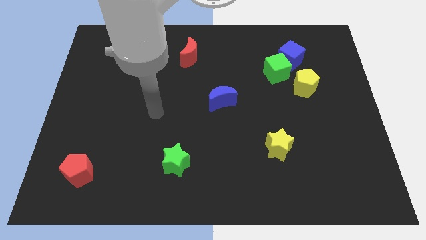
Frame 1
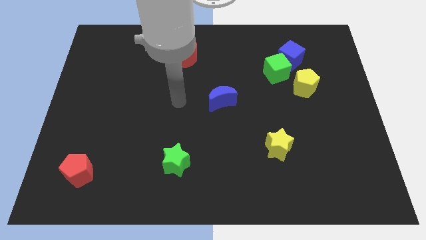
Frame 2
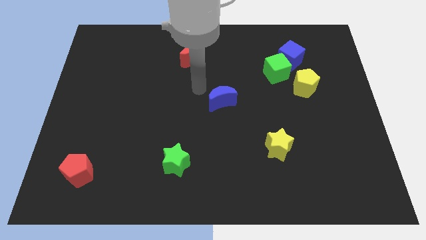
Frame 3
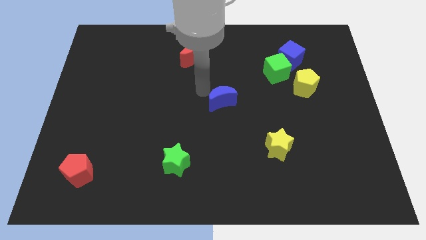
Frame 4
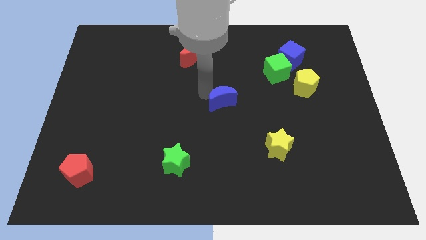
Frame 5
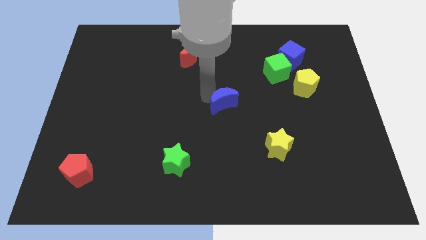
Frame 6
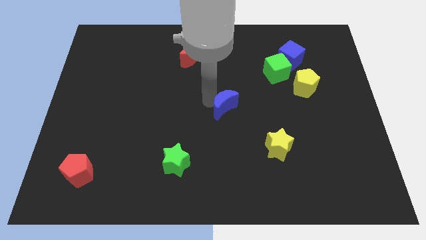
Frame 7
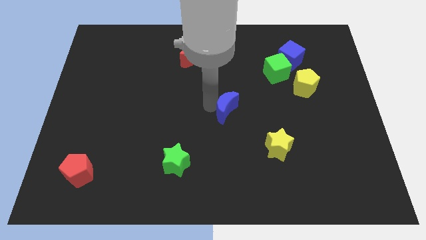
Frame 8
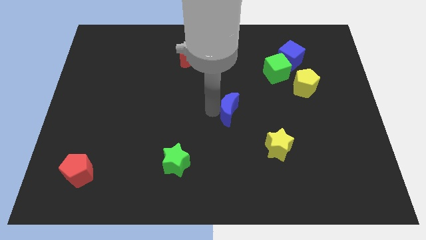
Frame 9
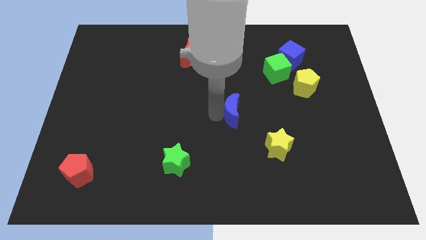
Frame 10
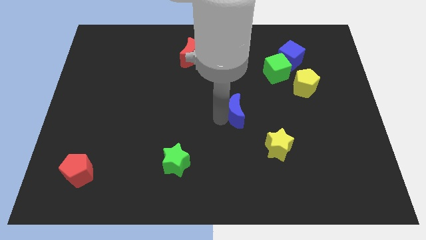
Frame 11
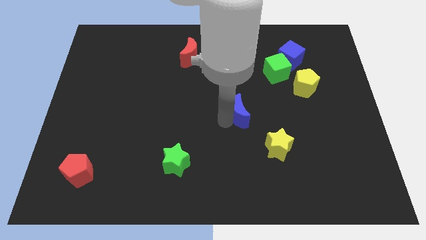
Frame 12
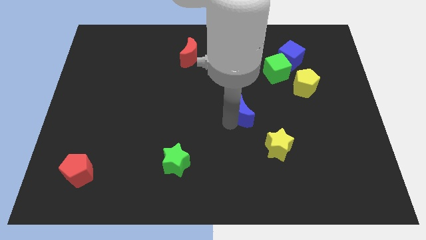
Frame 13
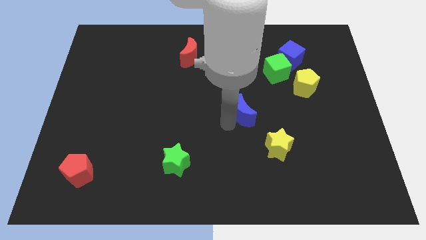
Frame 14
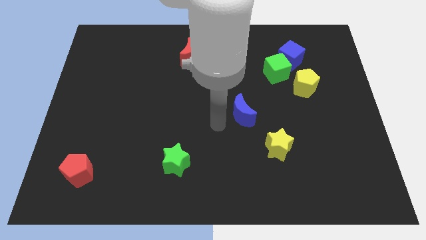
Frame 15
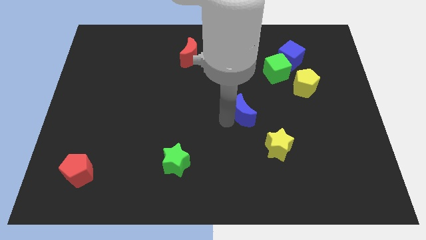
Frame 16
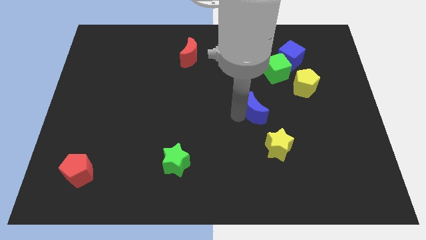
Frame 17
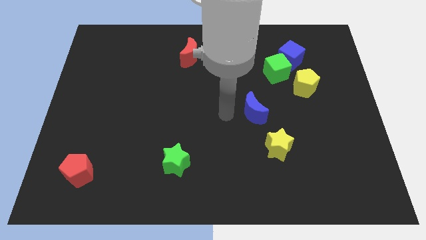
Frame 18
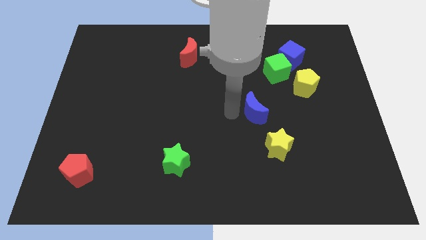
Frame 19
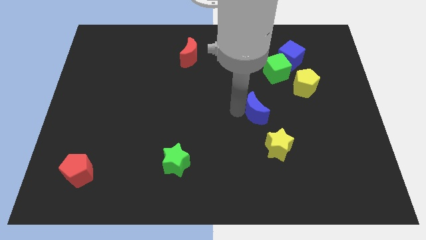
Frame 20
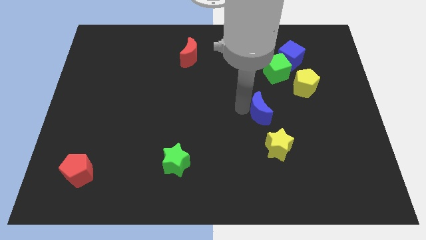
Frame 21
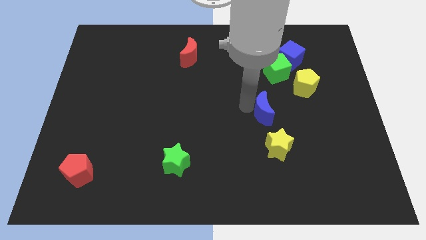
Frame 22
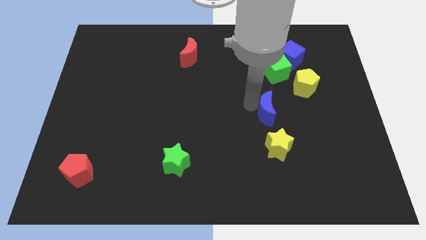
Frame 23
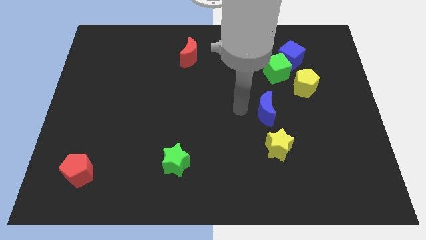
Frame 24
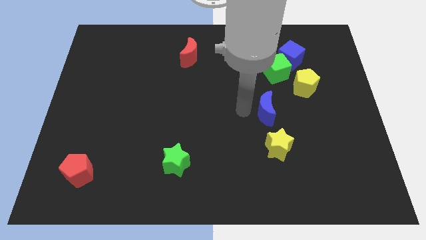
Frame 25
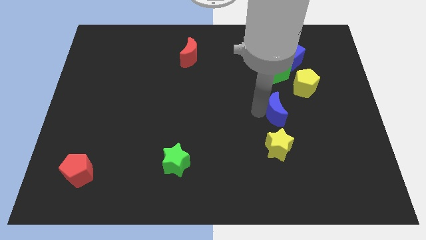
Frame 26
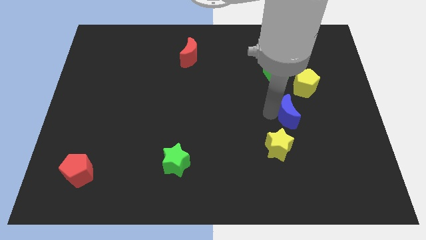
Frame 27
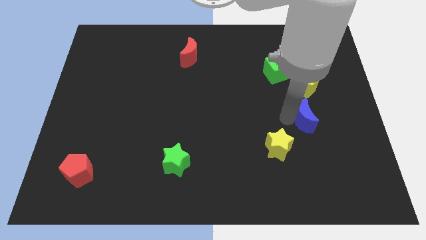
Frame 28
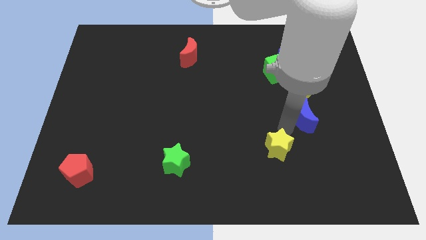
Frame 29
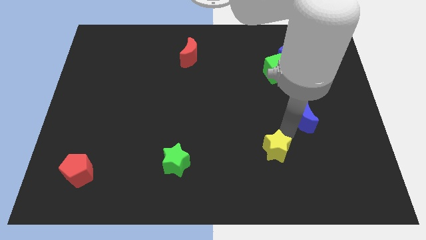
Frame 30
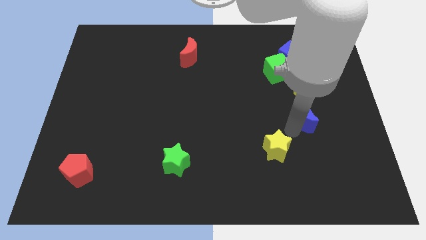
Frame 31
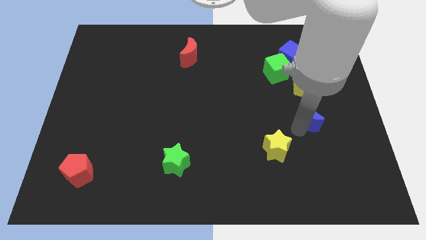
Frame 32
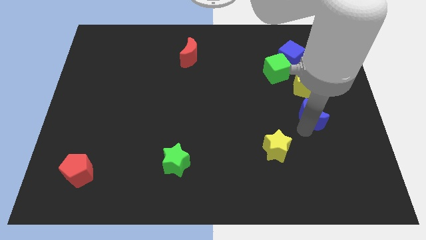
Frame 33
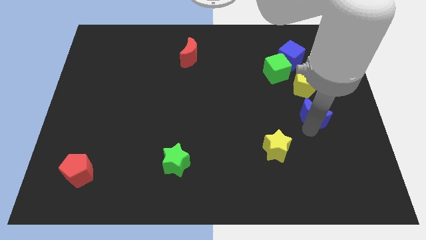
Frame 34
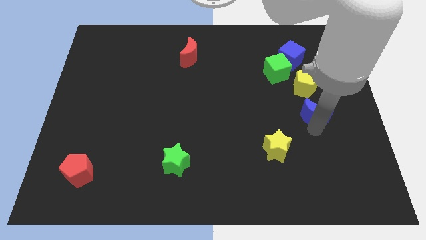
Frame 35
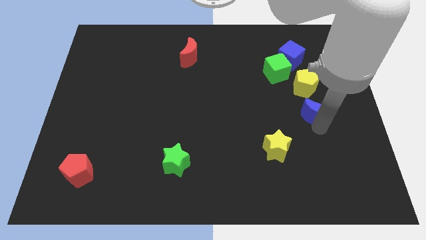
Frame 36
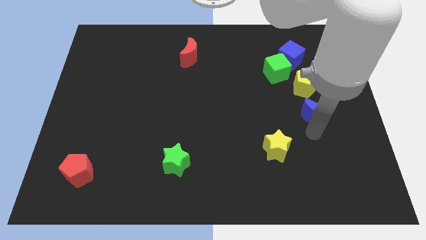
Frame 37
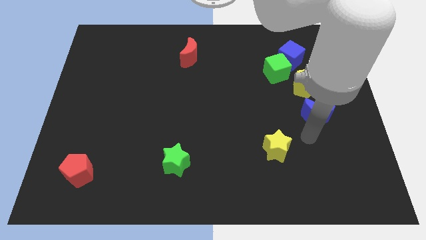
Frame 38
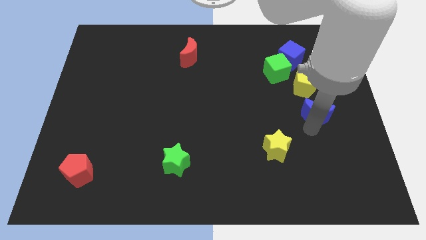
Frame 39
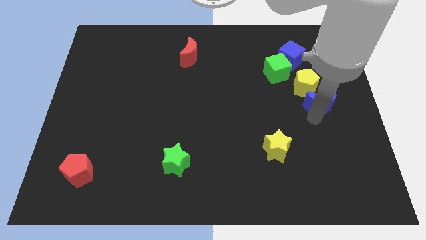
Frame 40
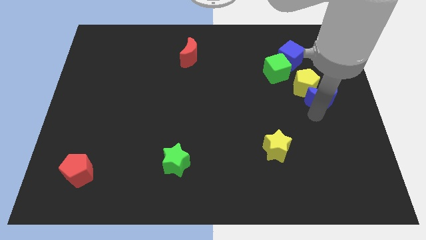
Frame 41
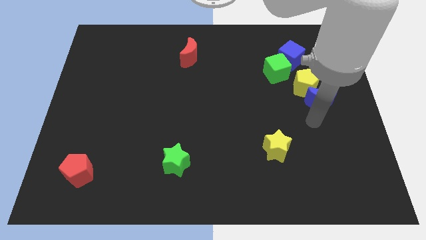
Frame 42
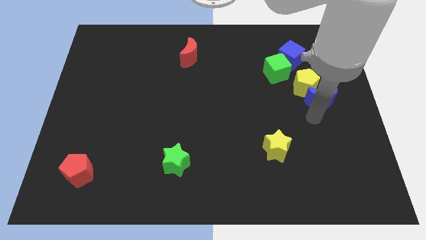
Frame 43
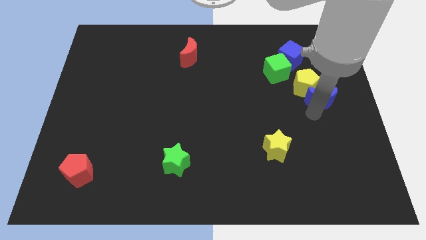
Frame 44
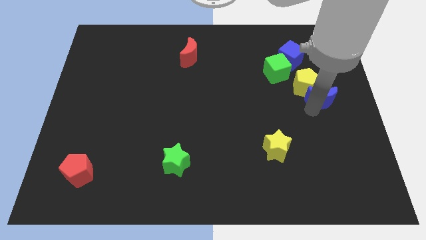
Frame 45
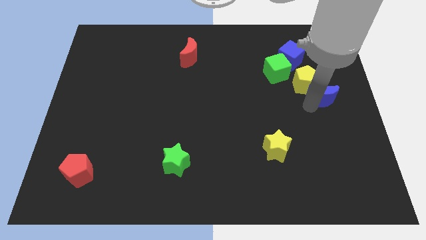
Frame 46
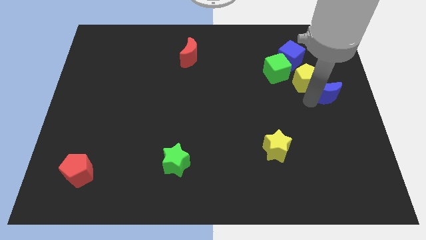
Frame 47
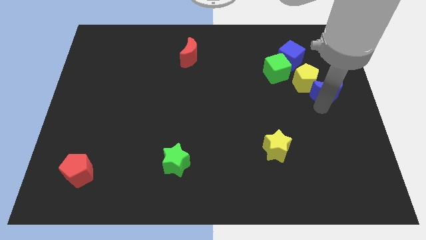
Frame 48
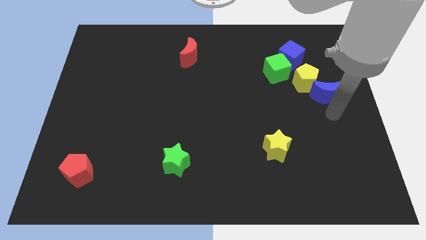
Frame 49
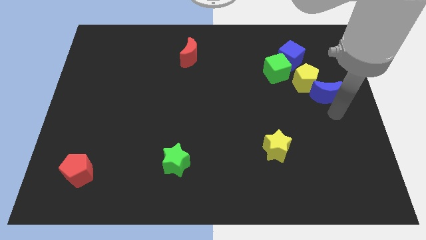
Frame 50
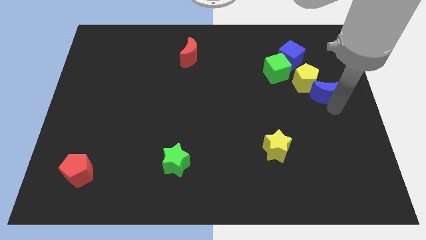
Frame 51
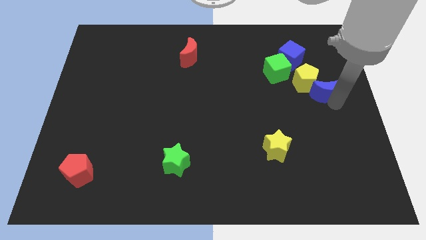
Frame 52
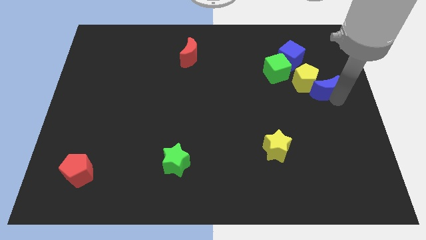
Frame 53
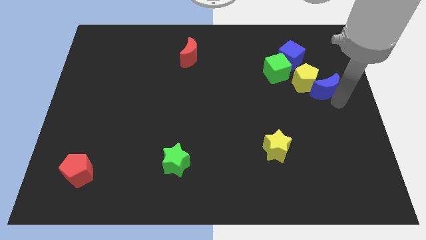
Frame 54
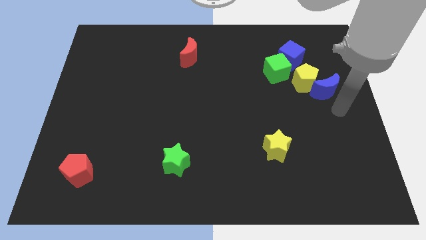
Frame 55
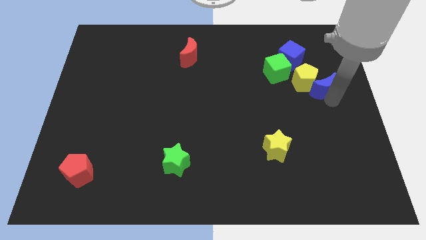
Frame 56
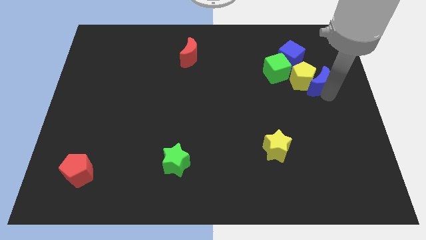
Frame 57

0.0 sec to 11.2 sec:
slide the blue moon to the bottom right side of the blue cube
